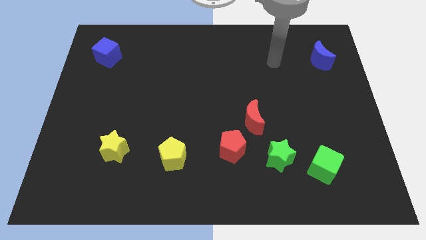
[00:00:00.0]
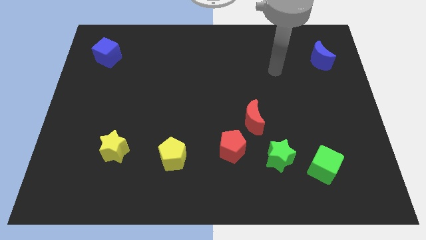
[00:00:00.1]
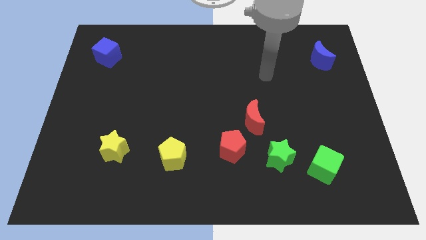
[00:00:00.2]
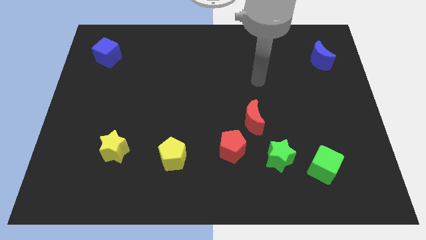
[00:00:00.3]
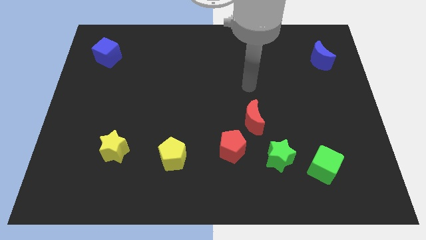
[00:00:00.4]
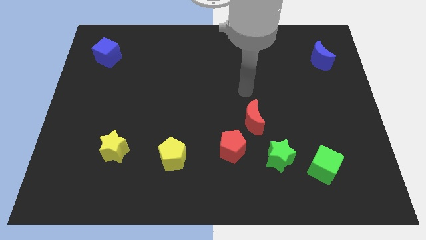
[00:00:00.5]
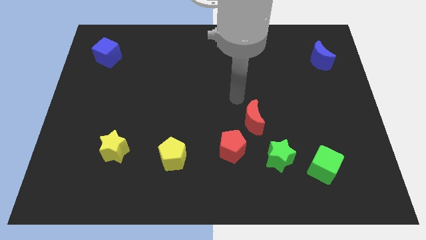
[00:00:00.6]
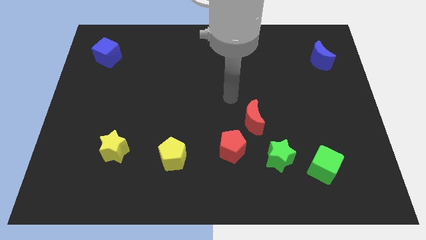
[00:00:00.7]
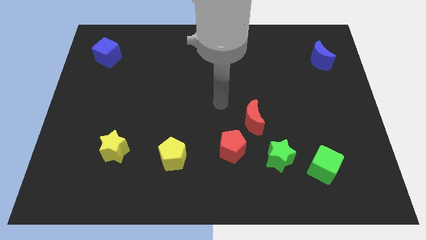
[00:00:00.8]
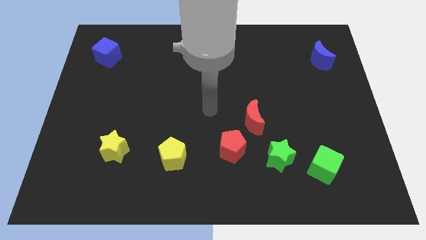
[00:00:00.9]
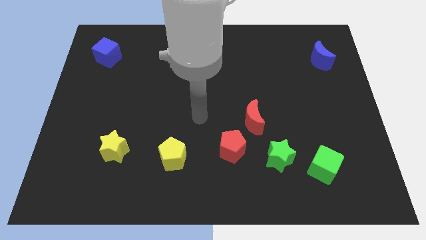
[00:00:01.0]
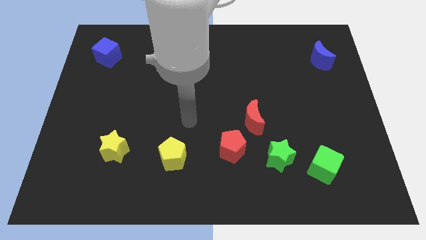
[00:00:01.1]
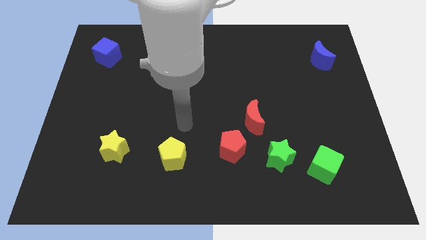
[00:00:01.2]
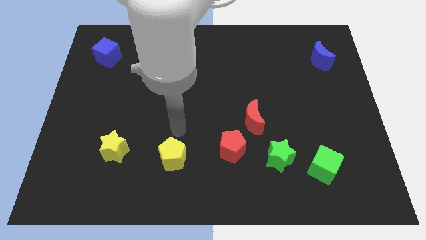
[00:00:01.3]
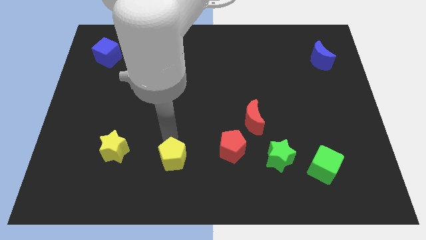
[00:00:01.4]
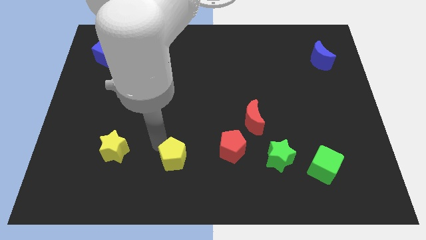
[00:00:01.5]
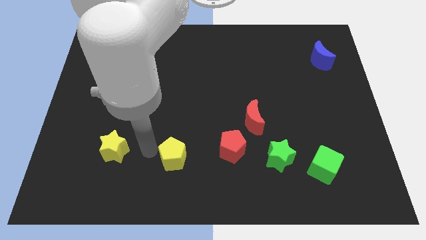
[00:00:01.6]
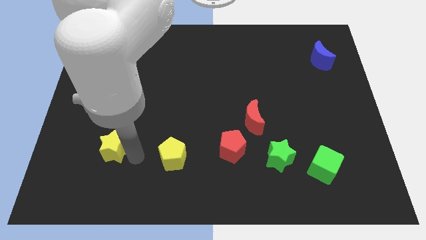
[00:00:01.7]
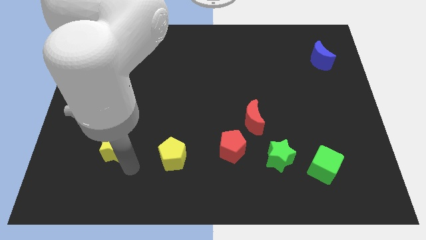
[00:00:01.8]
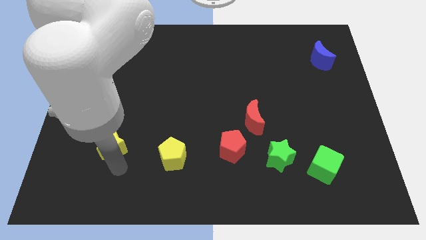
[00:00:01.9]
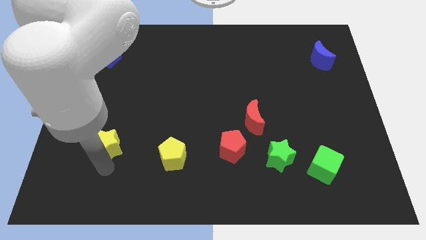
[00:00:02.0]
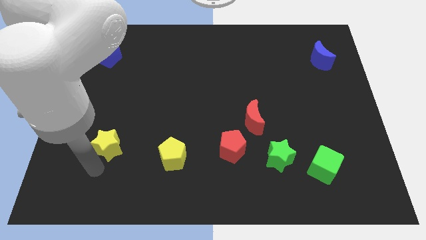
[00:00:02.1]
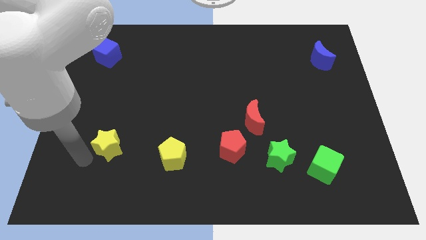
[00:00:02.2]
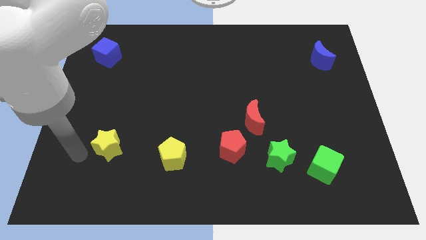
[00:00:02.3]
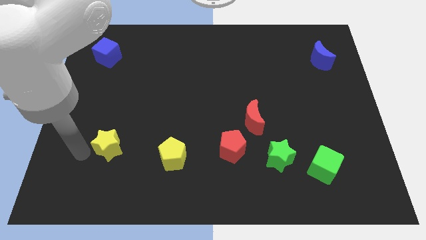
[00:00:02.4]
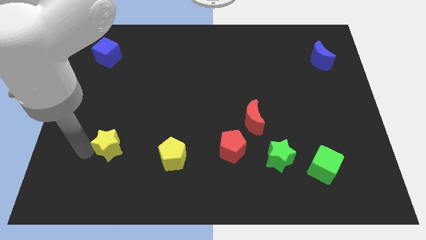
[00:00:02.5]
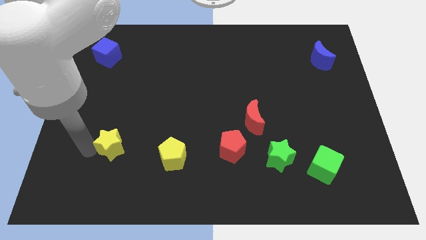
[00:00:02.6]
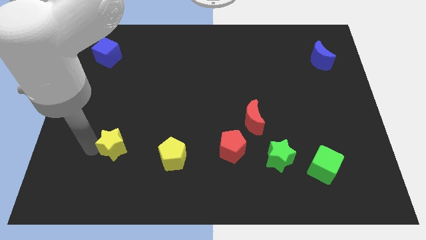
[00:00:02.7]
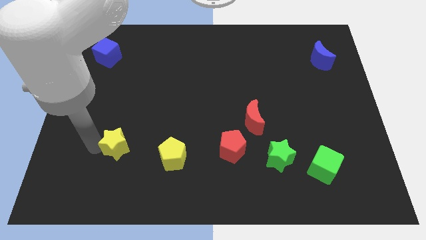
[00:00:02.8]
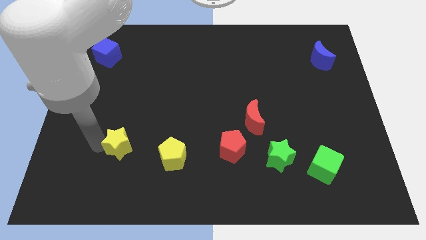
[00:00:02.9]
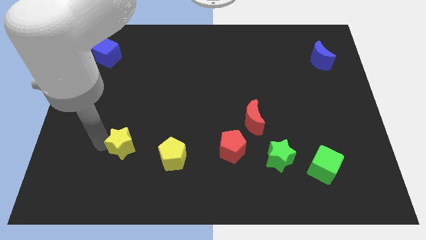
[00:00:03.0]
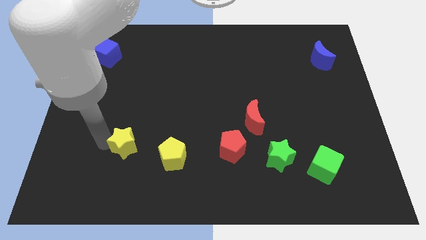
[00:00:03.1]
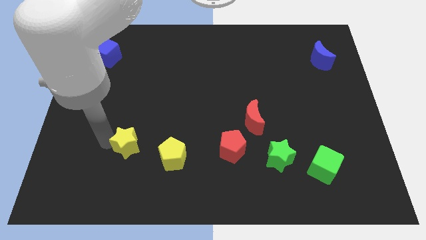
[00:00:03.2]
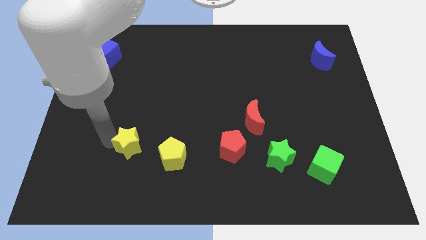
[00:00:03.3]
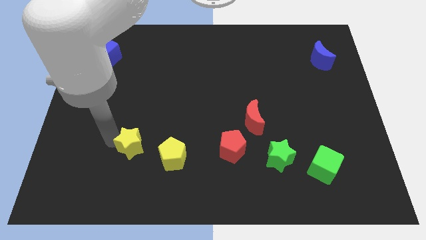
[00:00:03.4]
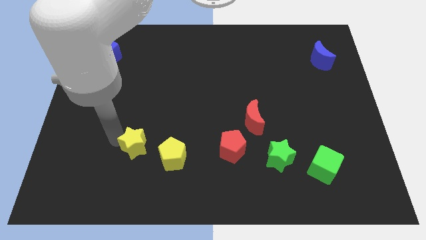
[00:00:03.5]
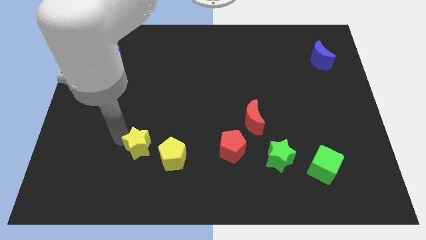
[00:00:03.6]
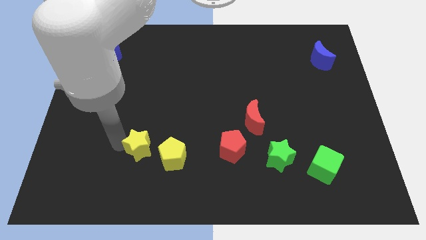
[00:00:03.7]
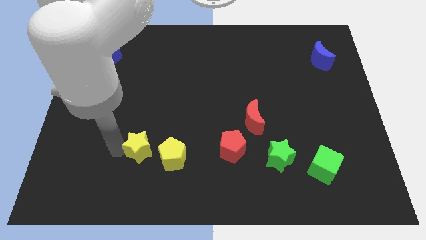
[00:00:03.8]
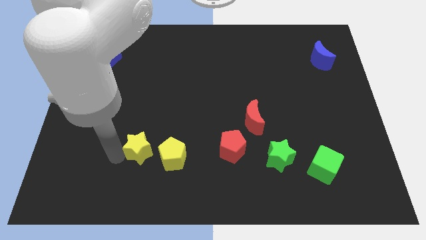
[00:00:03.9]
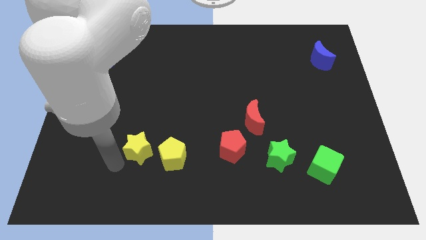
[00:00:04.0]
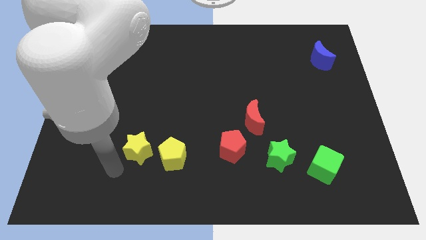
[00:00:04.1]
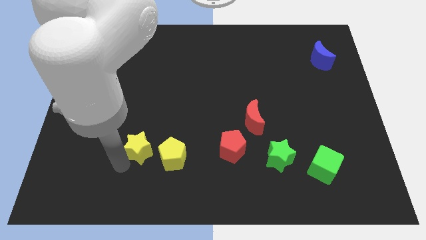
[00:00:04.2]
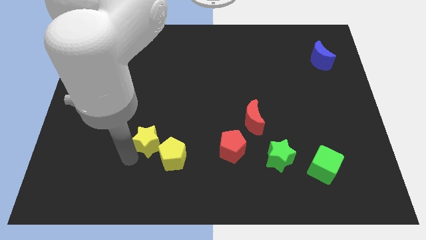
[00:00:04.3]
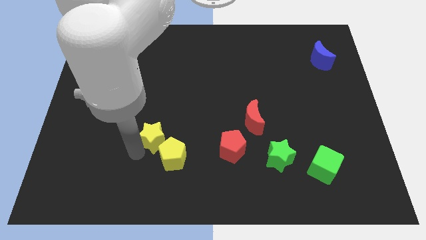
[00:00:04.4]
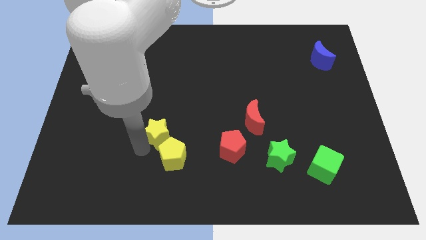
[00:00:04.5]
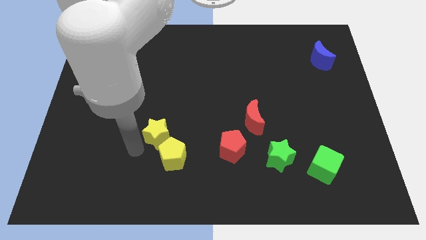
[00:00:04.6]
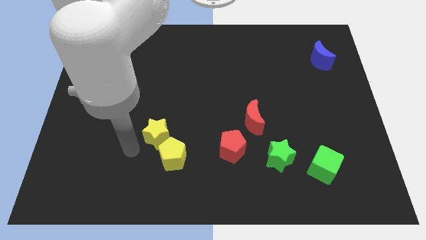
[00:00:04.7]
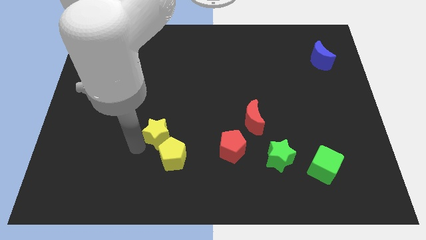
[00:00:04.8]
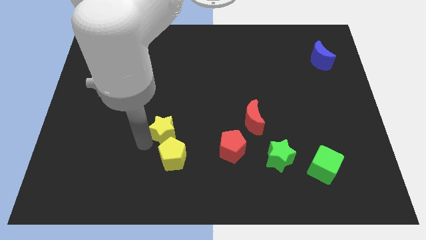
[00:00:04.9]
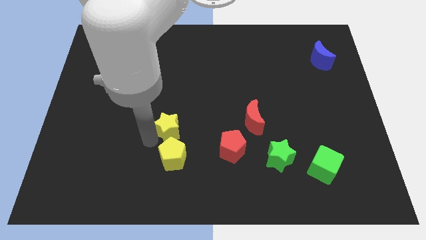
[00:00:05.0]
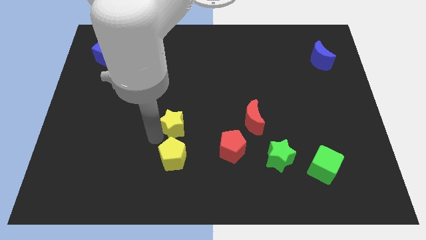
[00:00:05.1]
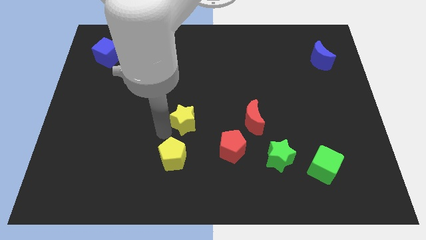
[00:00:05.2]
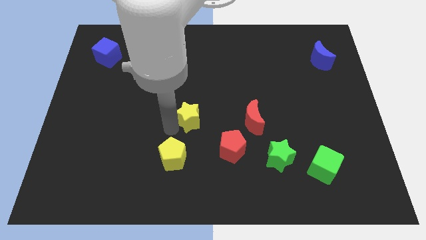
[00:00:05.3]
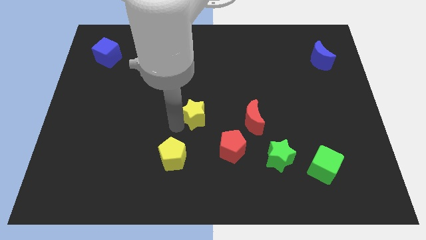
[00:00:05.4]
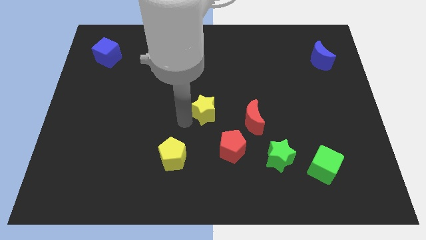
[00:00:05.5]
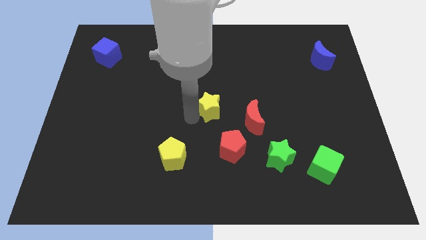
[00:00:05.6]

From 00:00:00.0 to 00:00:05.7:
put the yellow star to the top left of the red moon

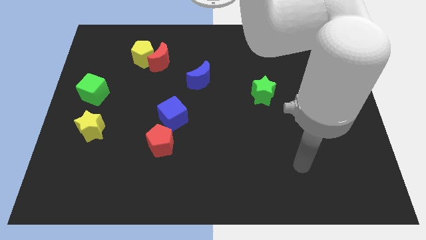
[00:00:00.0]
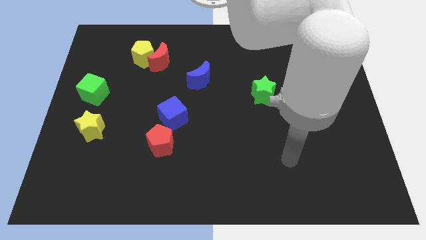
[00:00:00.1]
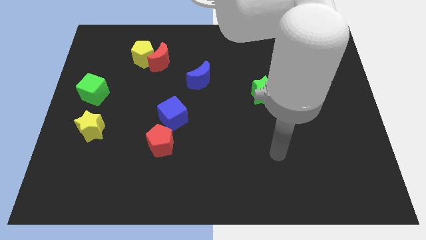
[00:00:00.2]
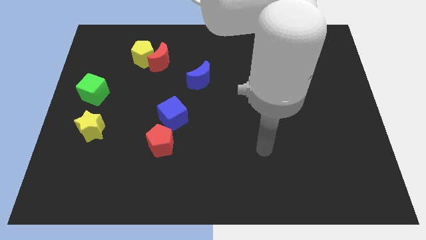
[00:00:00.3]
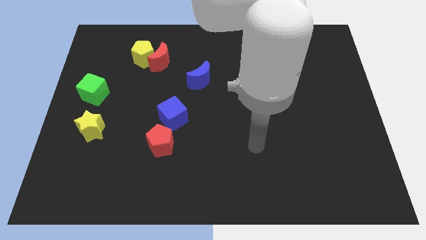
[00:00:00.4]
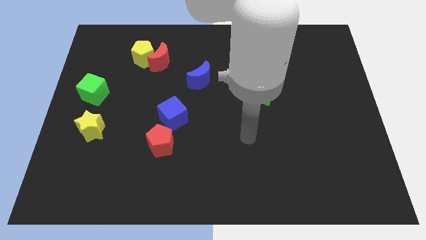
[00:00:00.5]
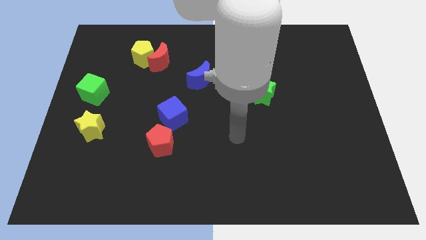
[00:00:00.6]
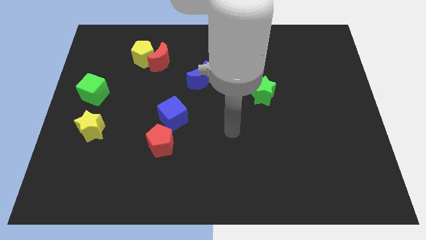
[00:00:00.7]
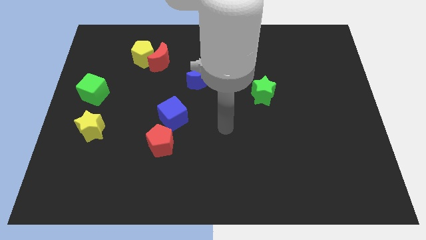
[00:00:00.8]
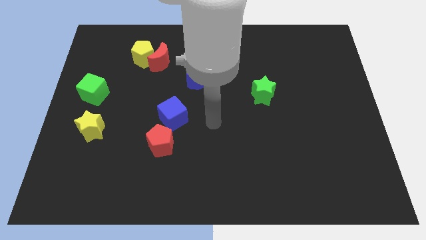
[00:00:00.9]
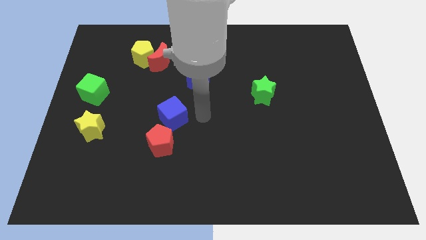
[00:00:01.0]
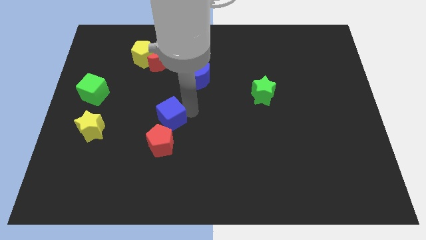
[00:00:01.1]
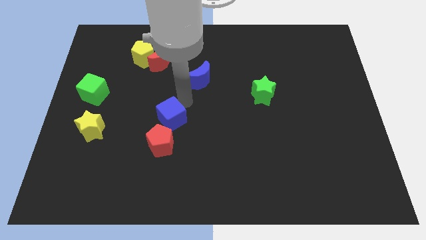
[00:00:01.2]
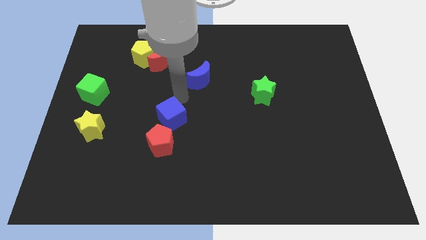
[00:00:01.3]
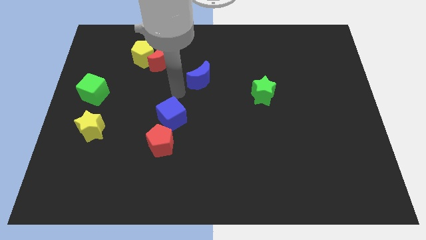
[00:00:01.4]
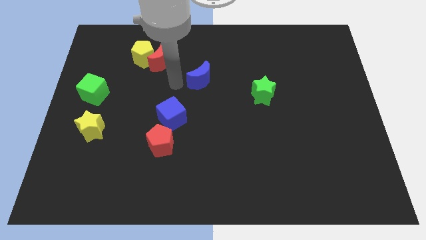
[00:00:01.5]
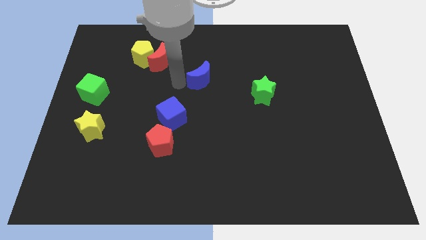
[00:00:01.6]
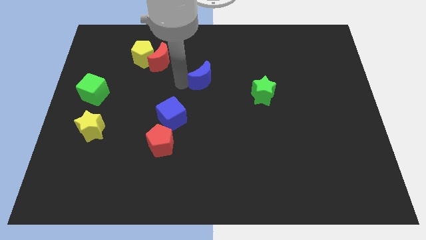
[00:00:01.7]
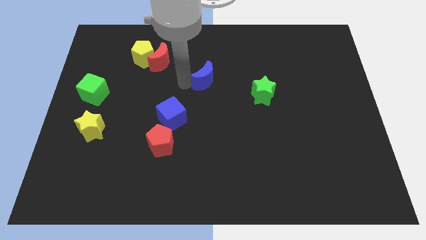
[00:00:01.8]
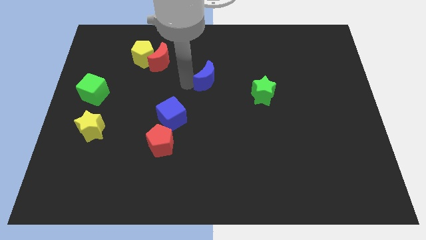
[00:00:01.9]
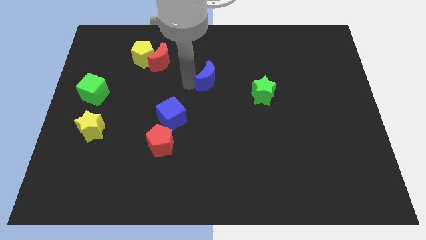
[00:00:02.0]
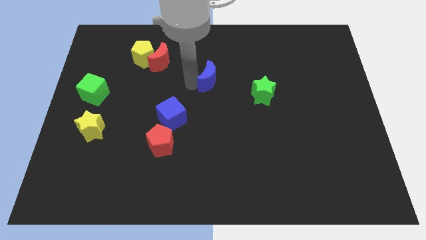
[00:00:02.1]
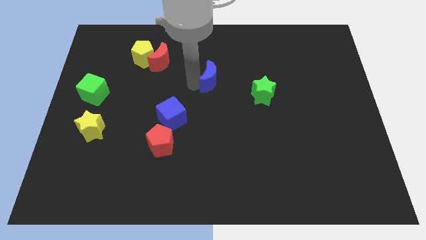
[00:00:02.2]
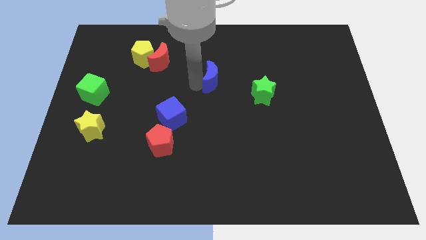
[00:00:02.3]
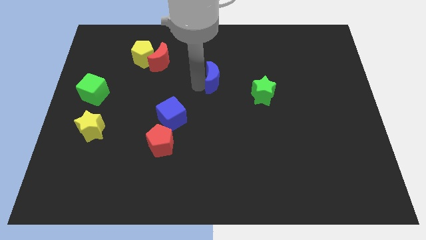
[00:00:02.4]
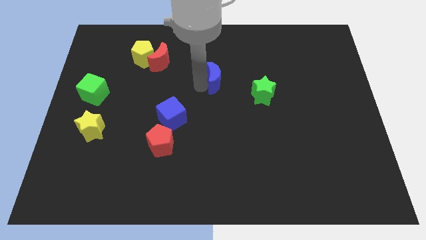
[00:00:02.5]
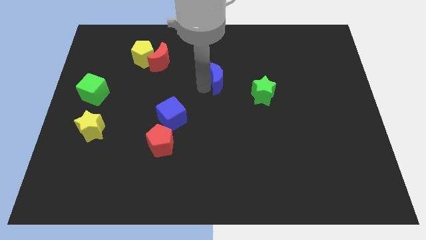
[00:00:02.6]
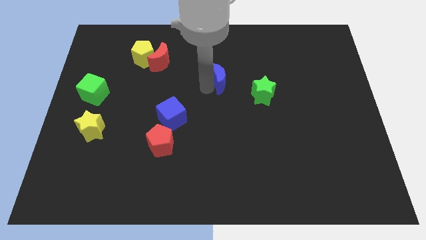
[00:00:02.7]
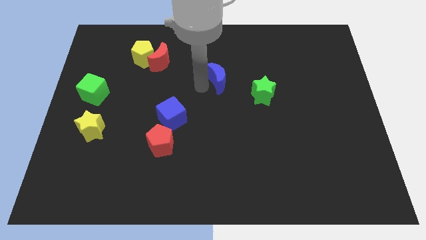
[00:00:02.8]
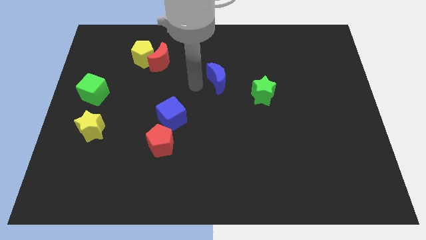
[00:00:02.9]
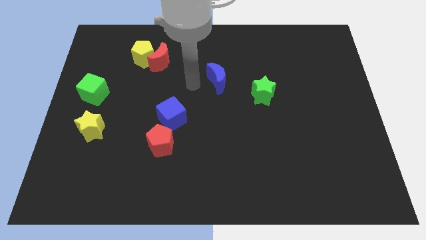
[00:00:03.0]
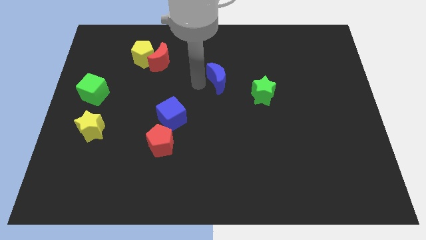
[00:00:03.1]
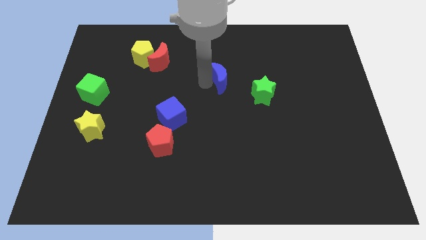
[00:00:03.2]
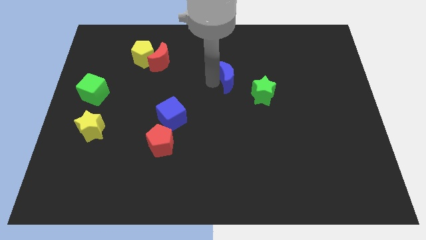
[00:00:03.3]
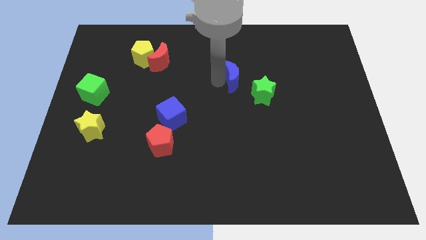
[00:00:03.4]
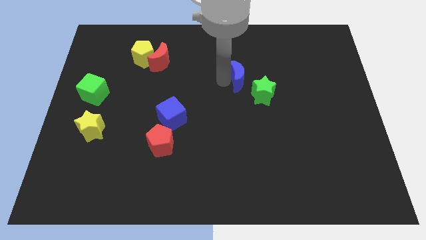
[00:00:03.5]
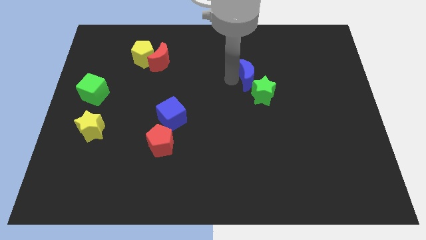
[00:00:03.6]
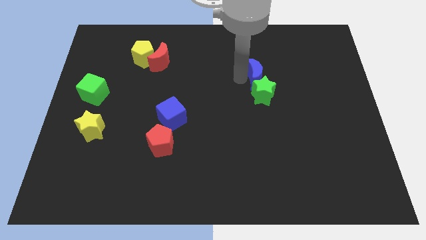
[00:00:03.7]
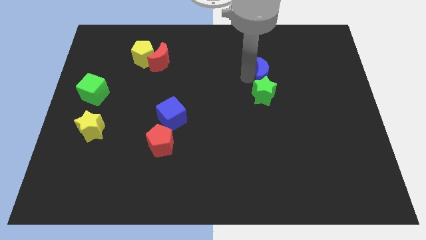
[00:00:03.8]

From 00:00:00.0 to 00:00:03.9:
move the blue moon to the top right side of the green star
